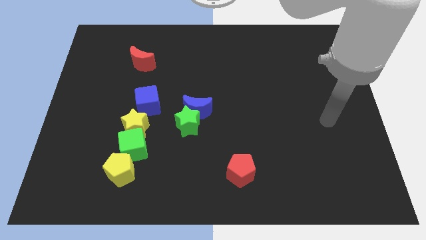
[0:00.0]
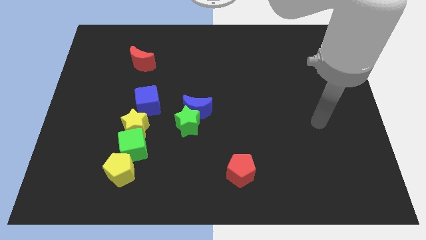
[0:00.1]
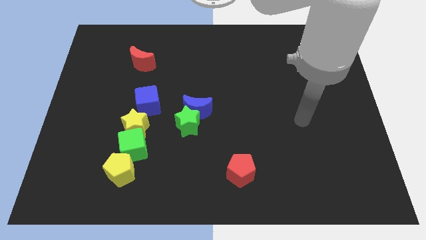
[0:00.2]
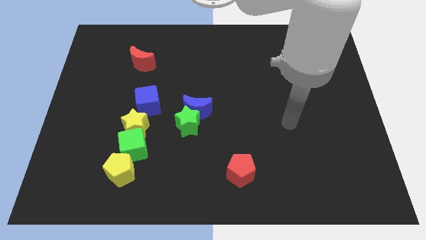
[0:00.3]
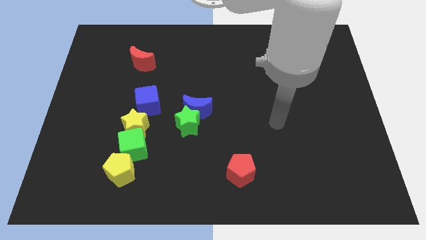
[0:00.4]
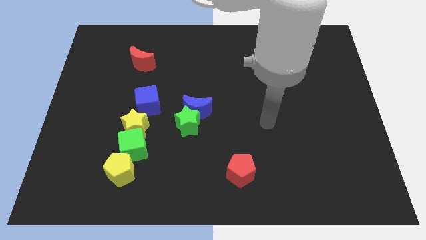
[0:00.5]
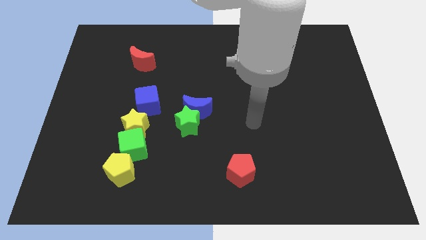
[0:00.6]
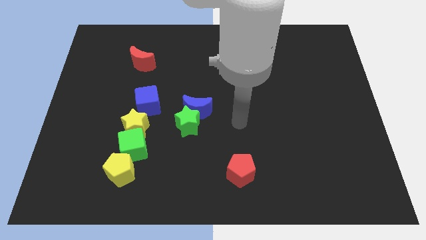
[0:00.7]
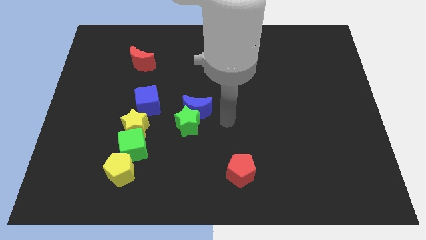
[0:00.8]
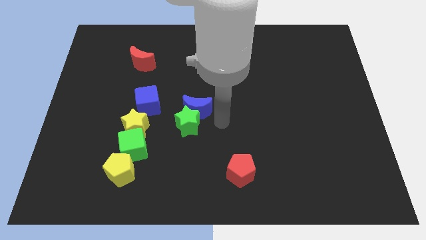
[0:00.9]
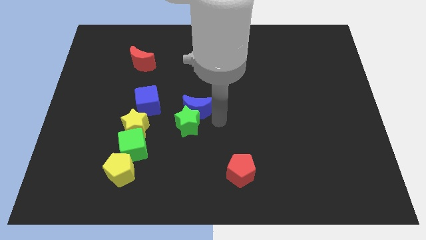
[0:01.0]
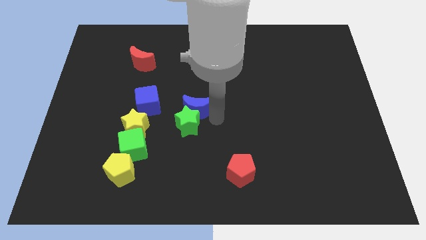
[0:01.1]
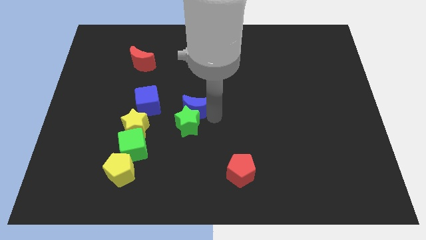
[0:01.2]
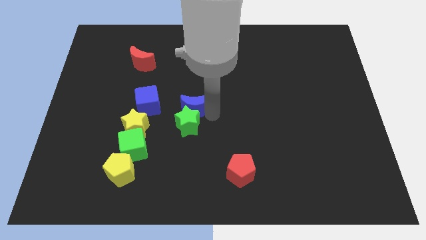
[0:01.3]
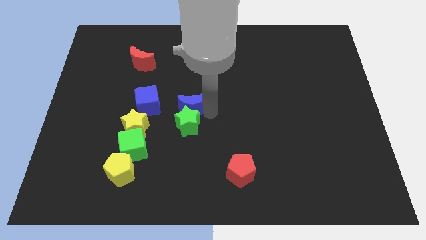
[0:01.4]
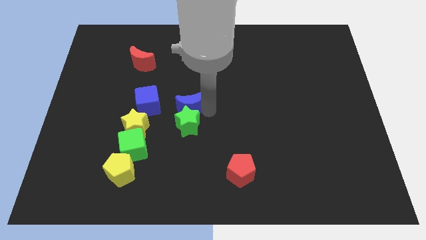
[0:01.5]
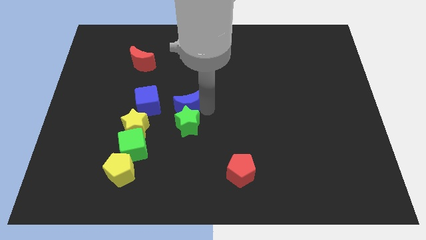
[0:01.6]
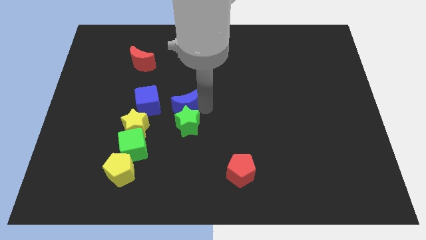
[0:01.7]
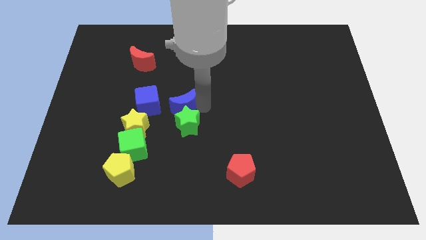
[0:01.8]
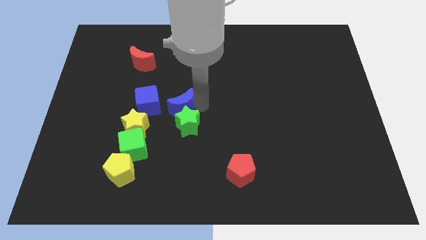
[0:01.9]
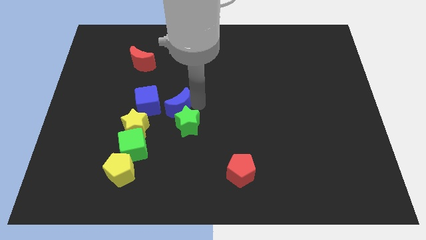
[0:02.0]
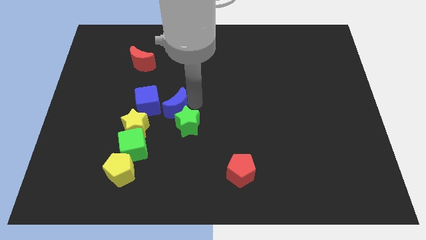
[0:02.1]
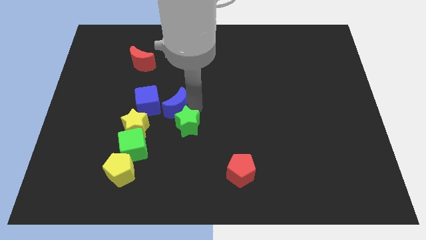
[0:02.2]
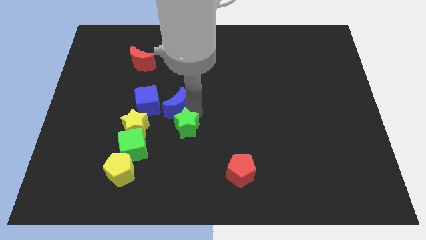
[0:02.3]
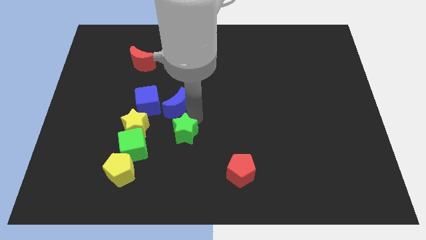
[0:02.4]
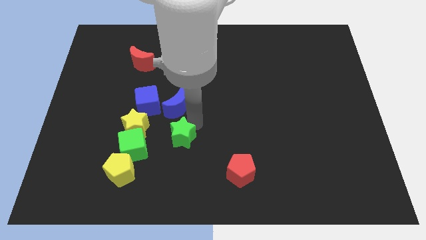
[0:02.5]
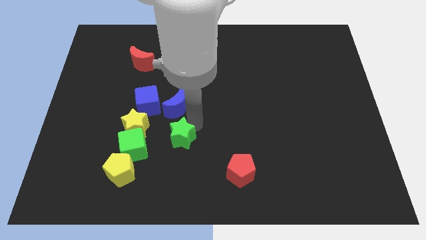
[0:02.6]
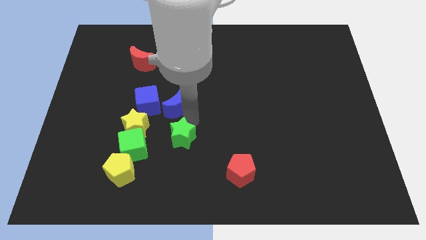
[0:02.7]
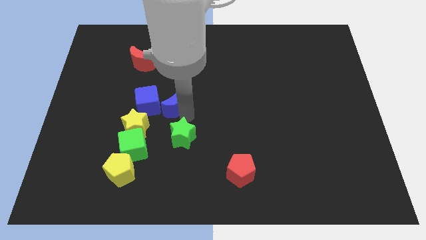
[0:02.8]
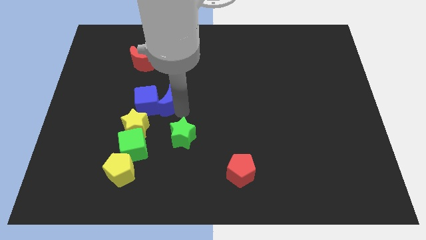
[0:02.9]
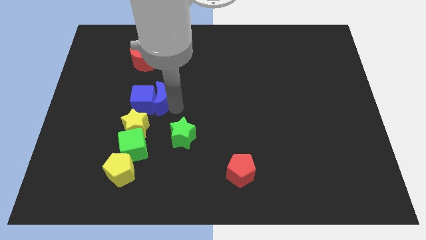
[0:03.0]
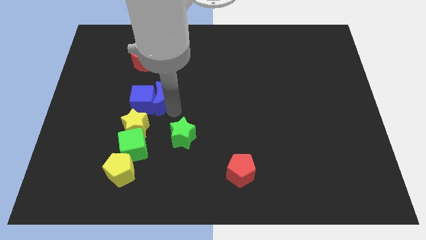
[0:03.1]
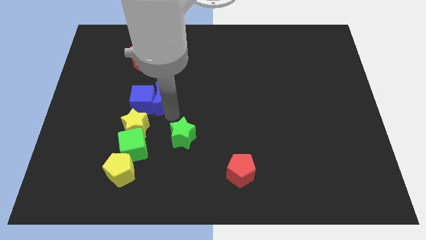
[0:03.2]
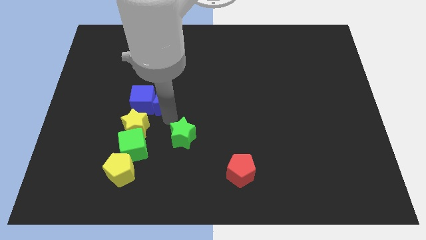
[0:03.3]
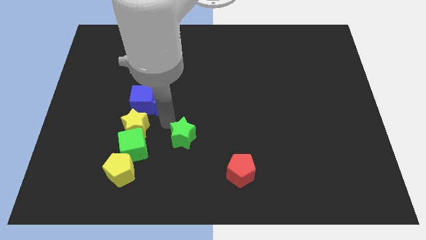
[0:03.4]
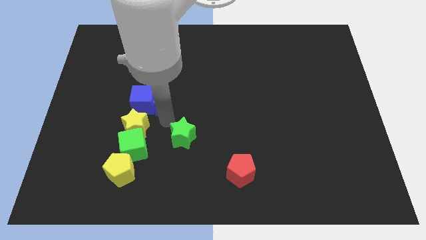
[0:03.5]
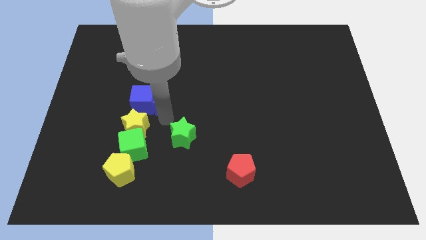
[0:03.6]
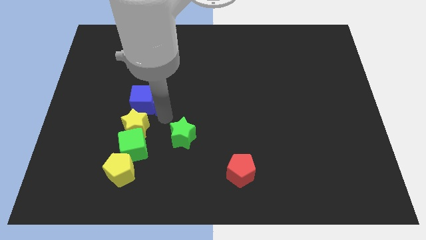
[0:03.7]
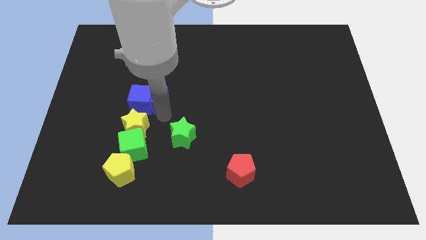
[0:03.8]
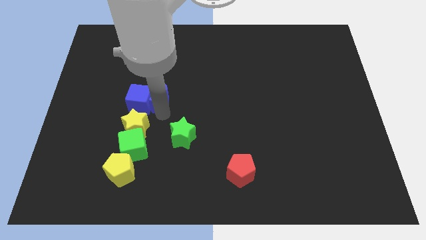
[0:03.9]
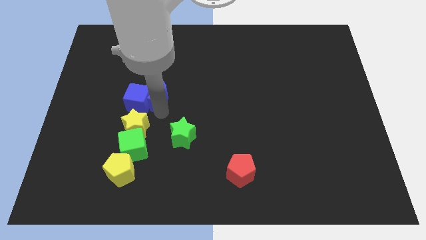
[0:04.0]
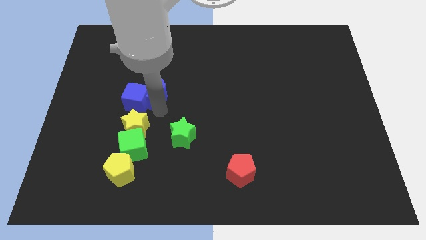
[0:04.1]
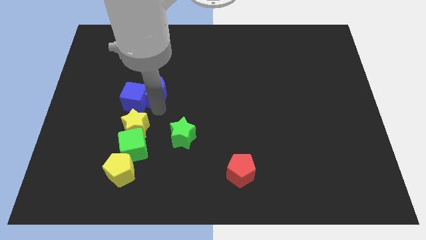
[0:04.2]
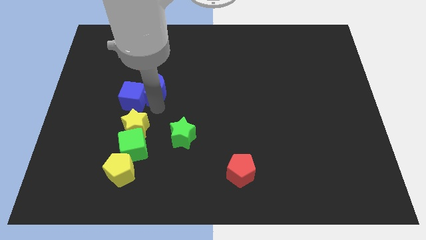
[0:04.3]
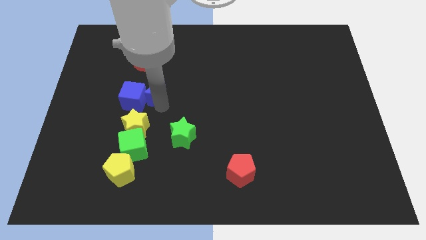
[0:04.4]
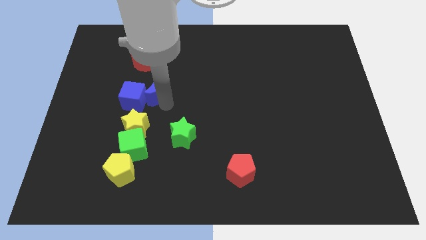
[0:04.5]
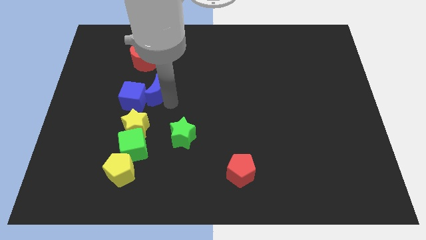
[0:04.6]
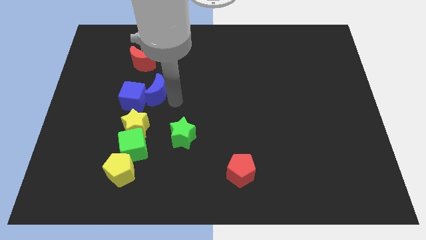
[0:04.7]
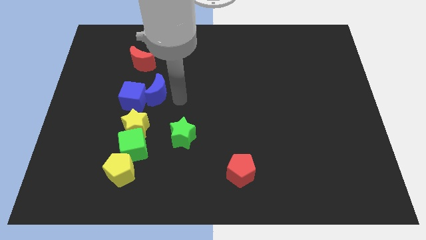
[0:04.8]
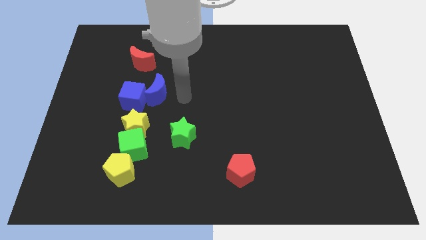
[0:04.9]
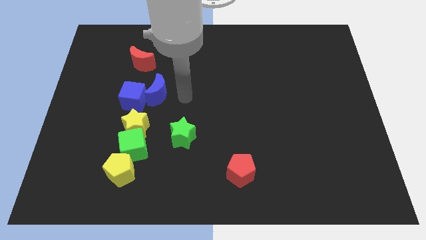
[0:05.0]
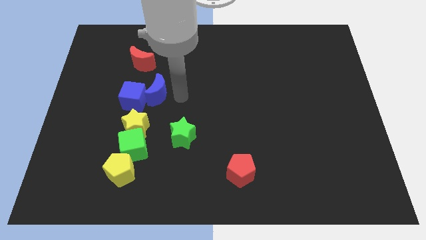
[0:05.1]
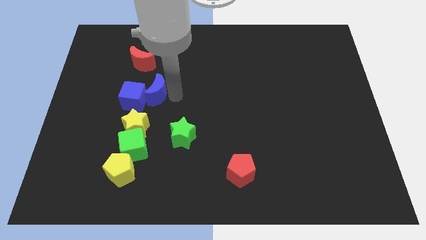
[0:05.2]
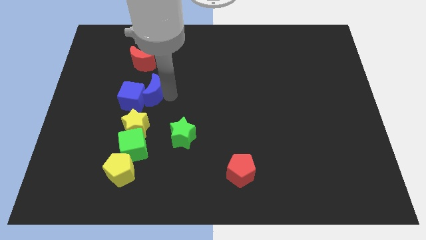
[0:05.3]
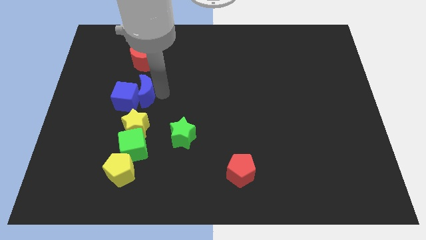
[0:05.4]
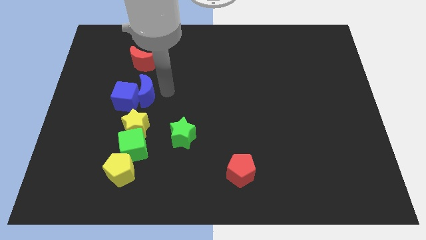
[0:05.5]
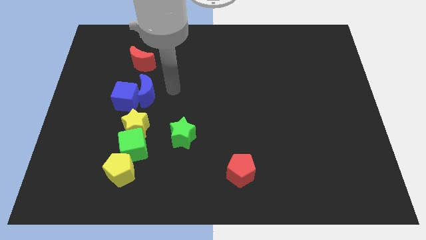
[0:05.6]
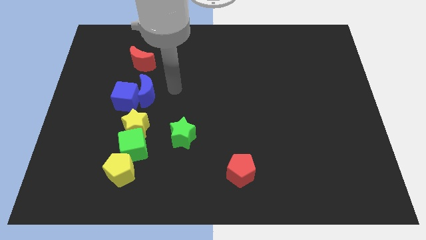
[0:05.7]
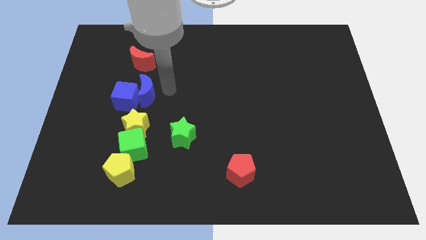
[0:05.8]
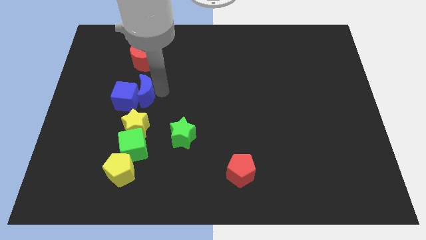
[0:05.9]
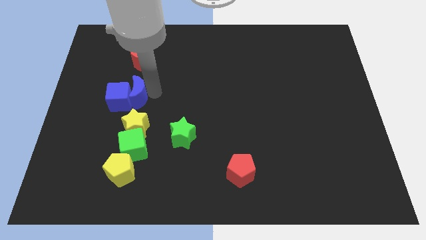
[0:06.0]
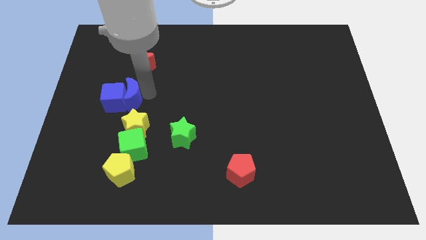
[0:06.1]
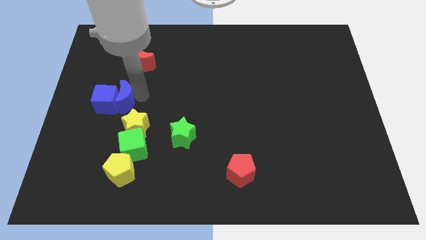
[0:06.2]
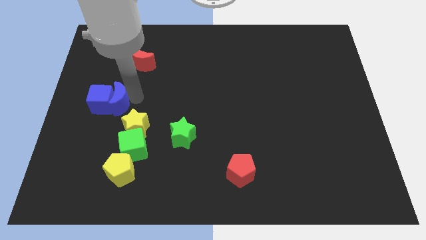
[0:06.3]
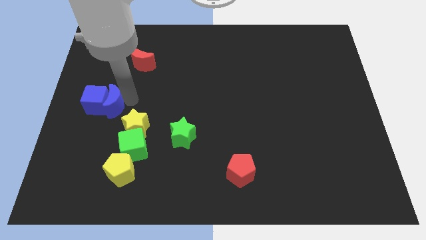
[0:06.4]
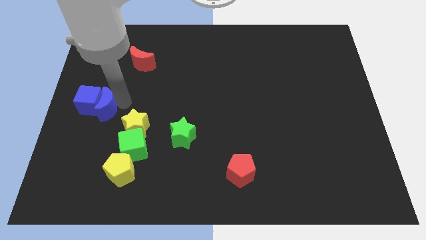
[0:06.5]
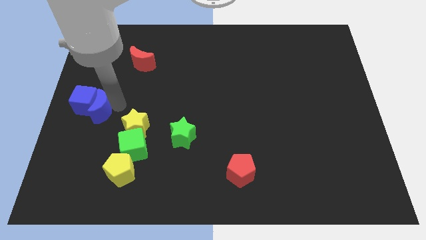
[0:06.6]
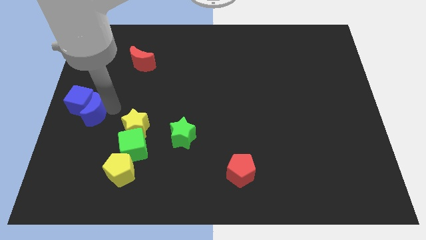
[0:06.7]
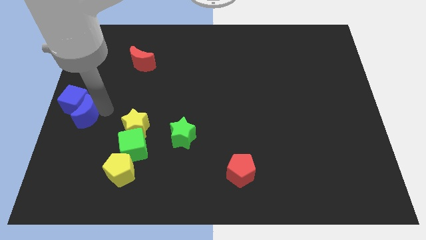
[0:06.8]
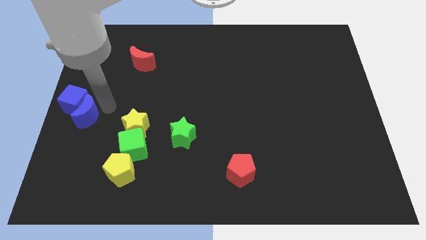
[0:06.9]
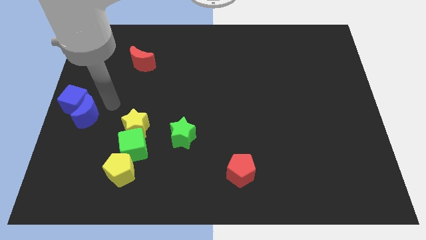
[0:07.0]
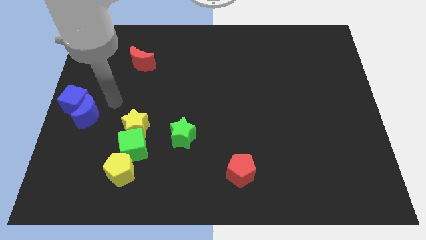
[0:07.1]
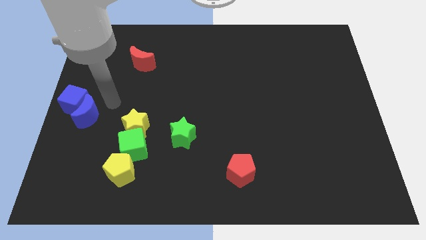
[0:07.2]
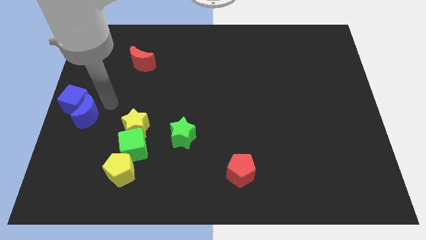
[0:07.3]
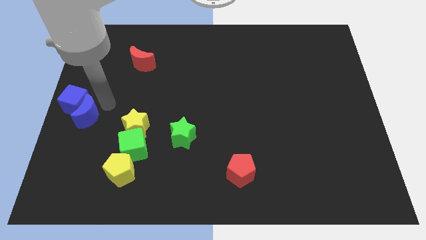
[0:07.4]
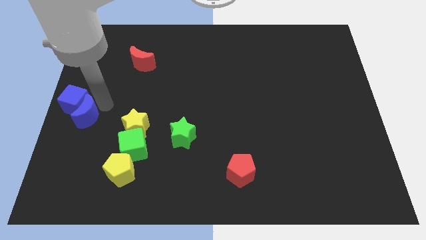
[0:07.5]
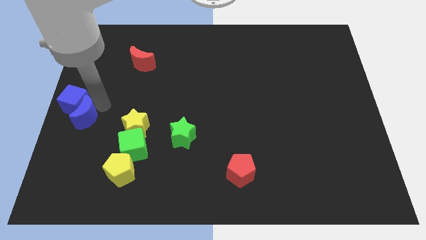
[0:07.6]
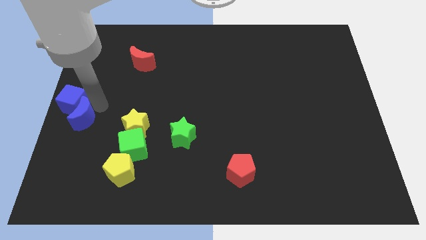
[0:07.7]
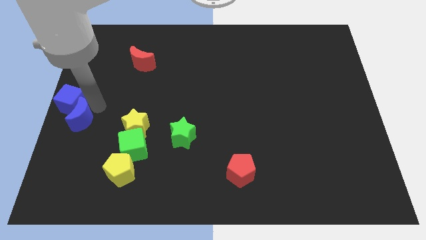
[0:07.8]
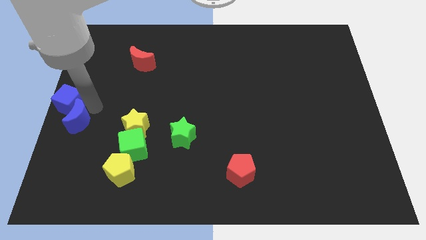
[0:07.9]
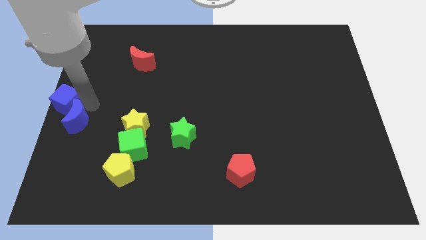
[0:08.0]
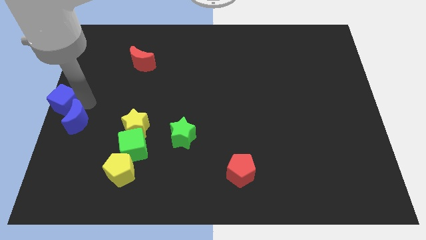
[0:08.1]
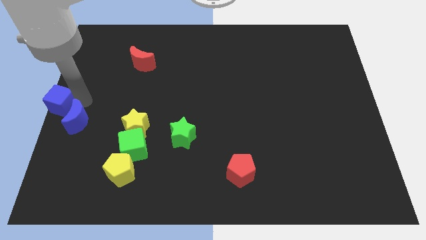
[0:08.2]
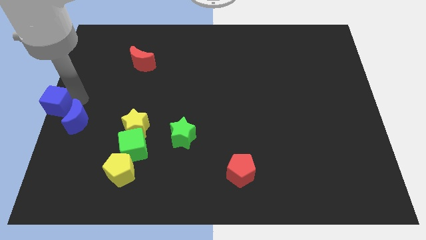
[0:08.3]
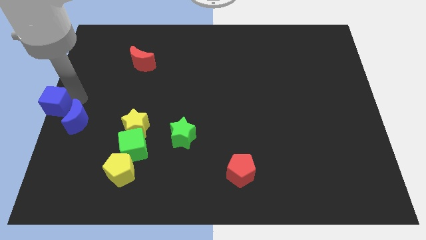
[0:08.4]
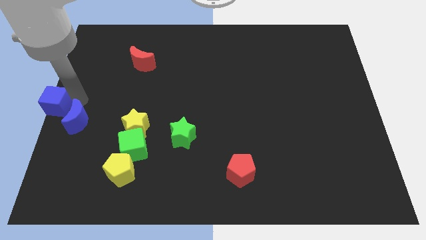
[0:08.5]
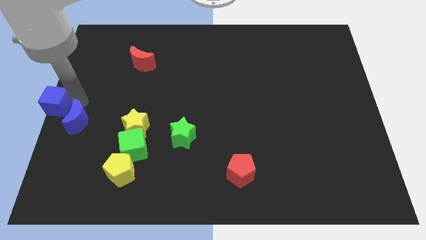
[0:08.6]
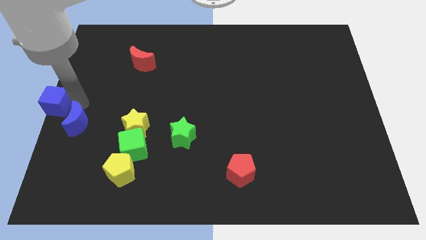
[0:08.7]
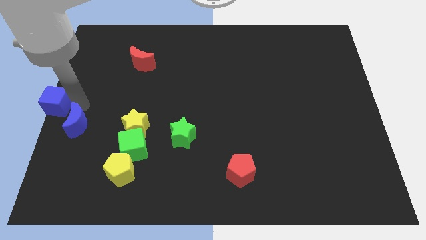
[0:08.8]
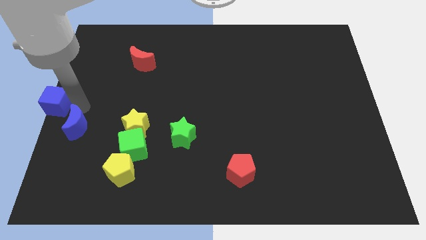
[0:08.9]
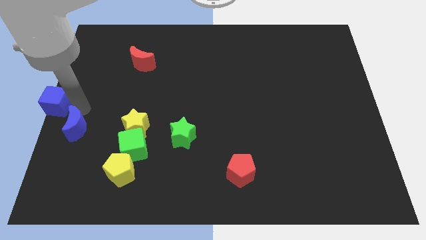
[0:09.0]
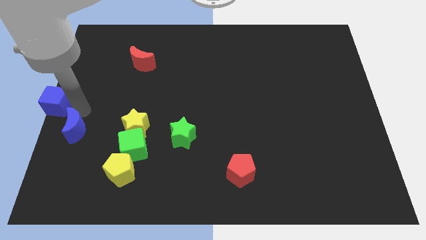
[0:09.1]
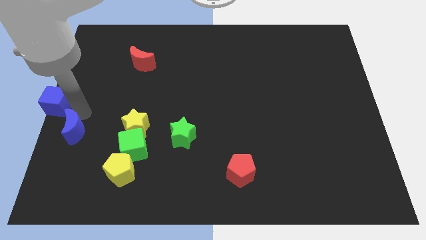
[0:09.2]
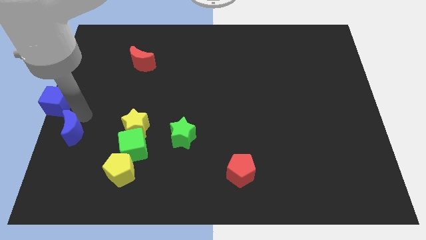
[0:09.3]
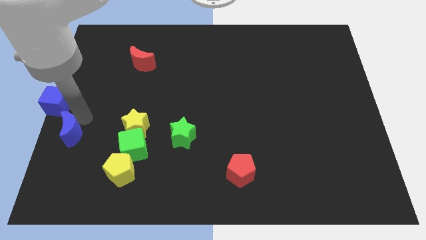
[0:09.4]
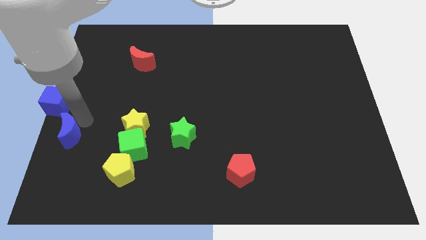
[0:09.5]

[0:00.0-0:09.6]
slide the blue moon just left of the green cube
